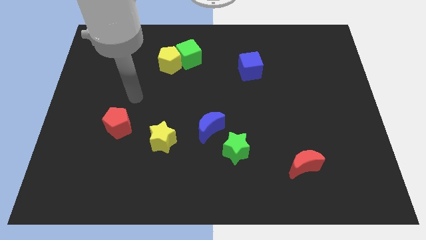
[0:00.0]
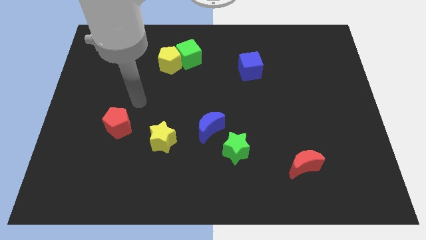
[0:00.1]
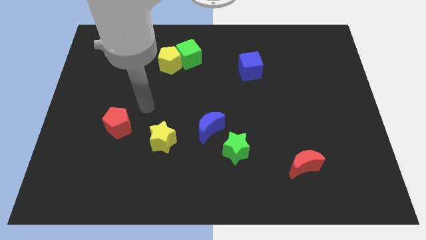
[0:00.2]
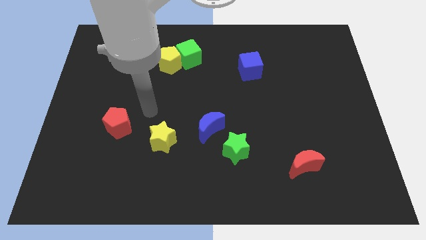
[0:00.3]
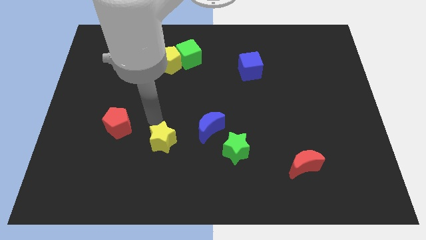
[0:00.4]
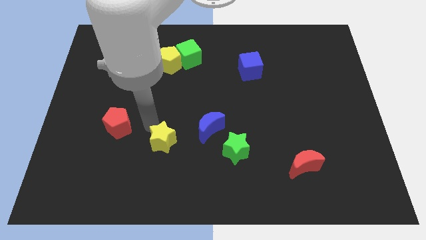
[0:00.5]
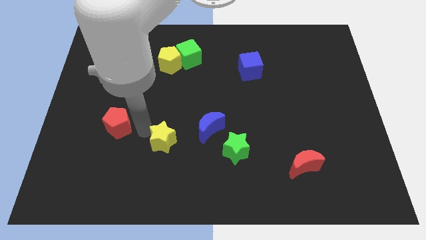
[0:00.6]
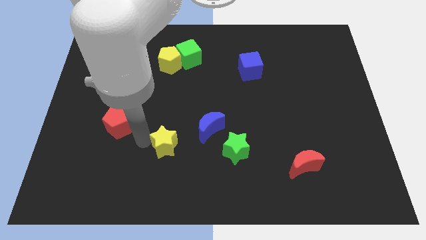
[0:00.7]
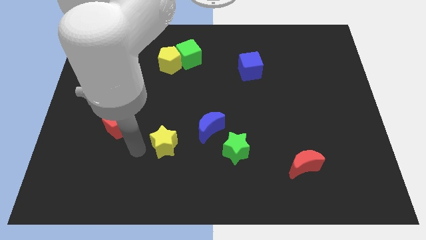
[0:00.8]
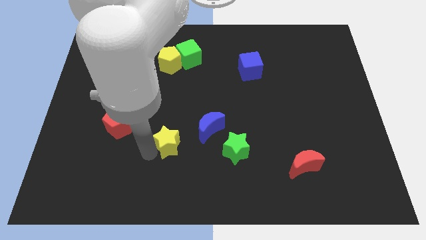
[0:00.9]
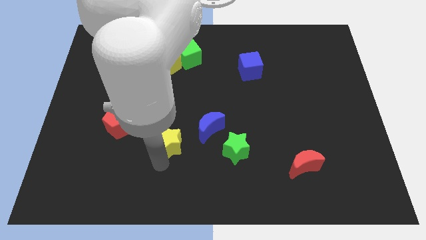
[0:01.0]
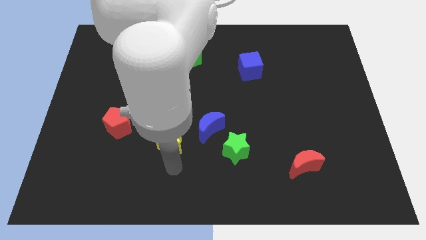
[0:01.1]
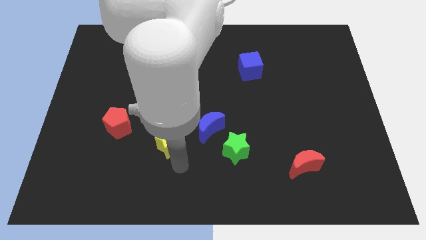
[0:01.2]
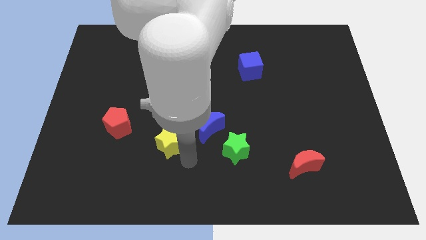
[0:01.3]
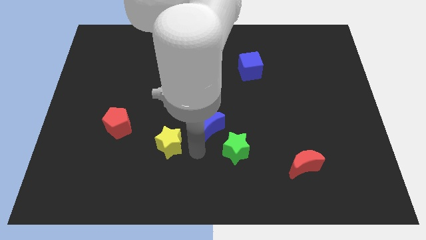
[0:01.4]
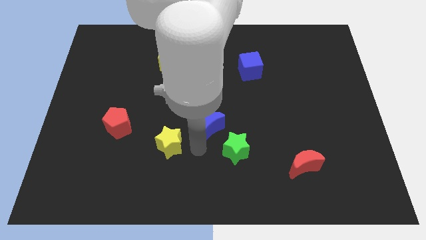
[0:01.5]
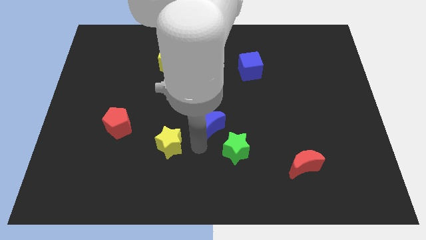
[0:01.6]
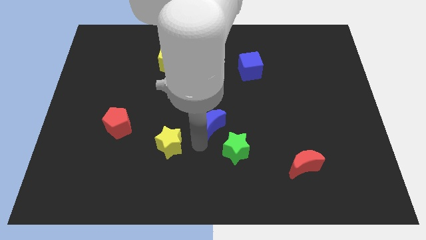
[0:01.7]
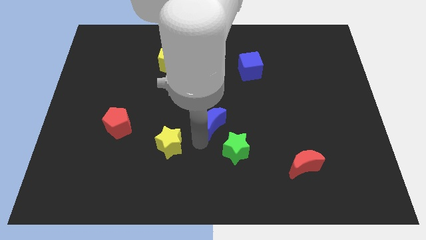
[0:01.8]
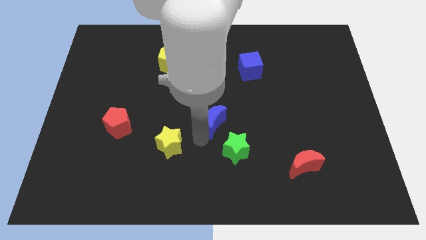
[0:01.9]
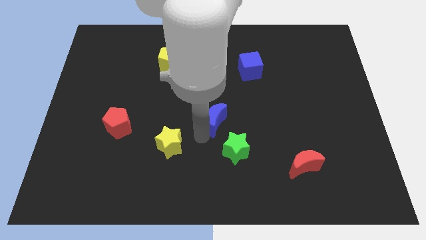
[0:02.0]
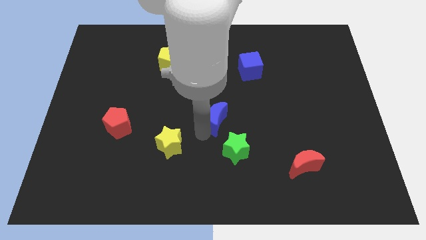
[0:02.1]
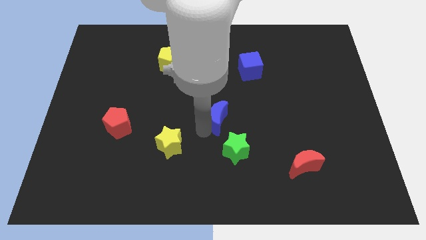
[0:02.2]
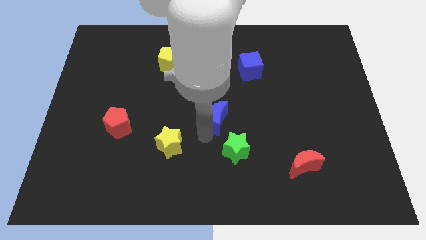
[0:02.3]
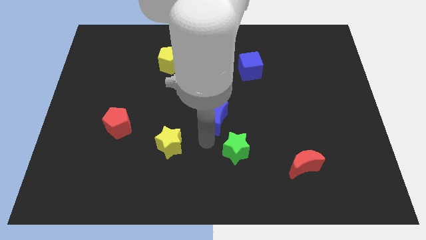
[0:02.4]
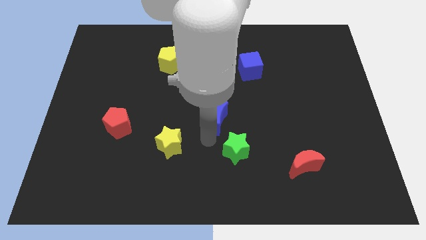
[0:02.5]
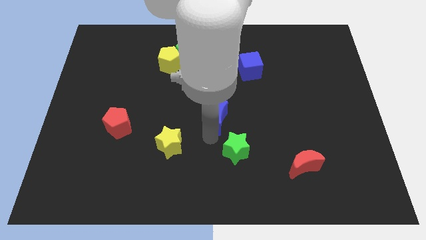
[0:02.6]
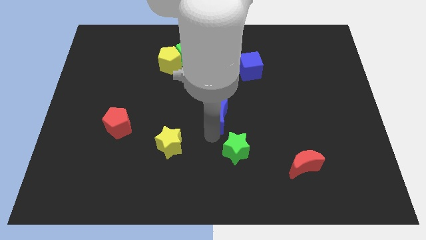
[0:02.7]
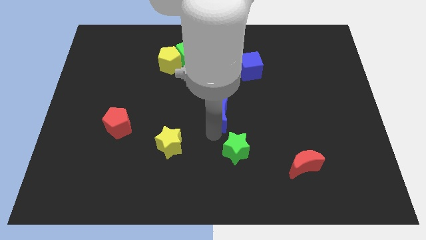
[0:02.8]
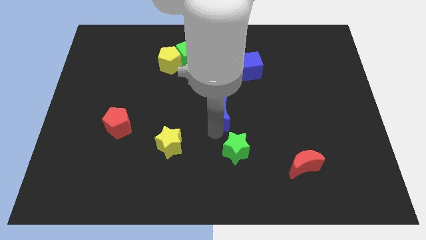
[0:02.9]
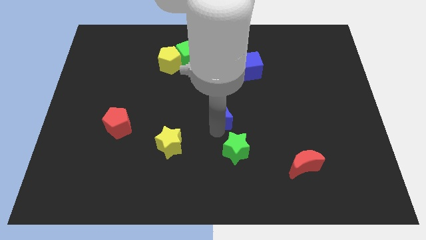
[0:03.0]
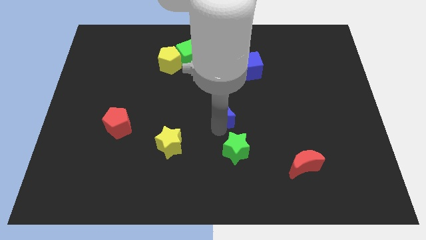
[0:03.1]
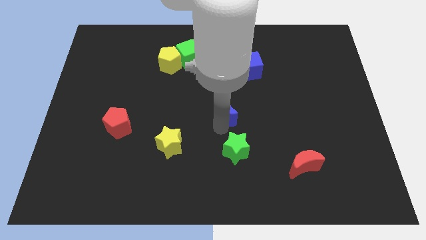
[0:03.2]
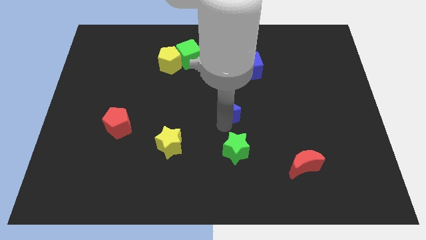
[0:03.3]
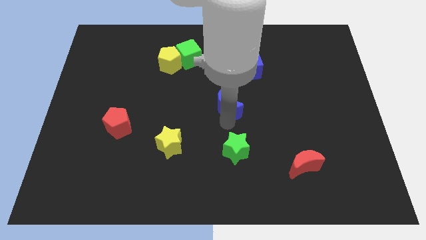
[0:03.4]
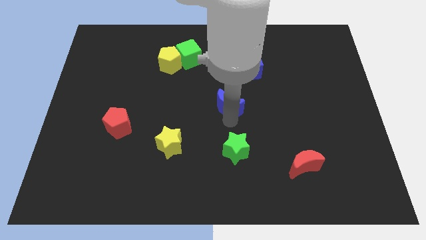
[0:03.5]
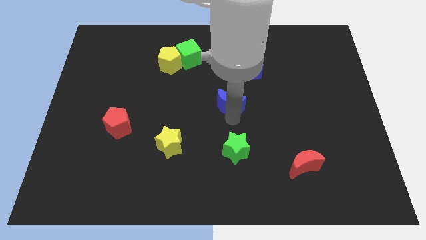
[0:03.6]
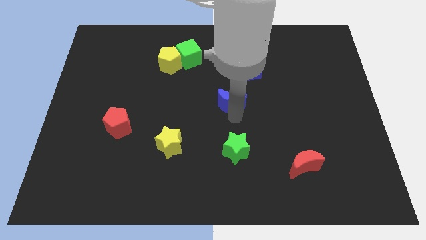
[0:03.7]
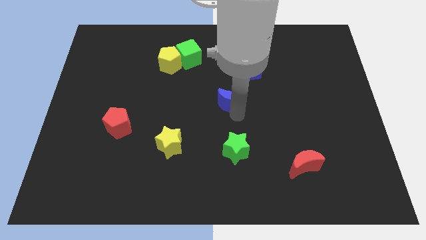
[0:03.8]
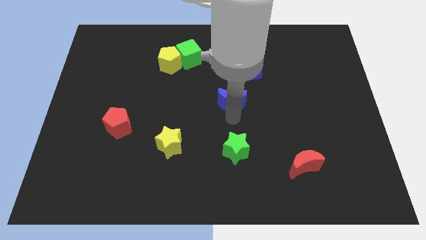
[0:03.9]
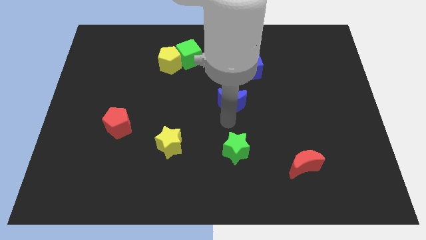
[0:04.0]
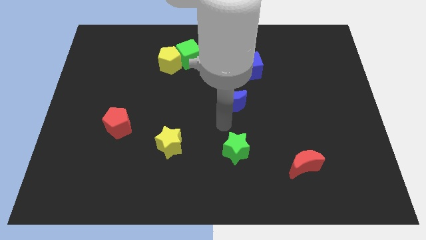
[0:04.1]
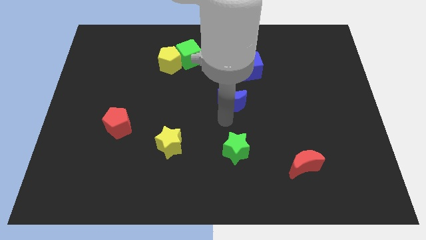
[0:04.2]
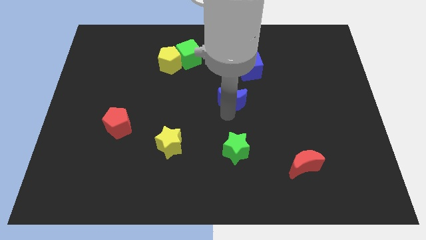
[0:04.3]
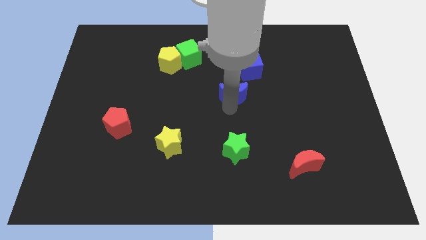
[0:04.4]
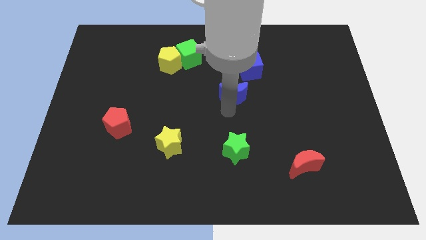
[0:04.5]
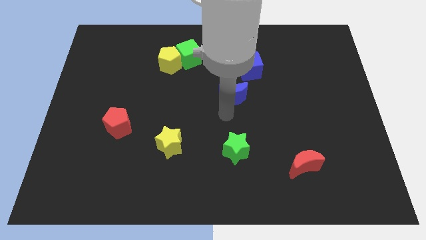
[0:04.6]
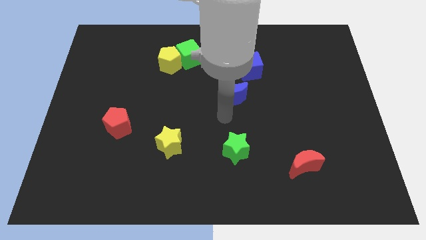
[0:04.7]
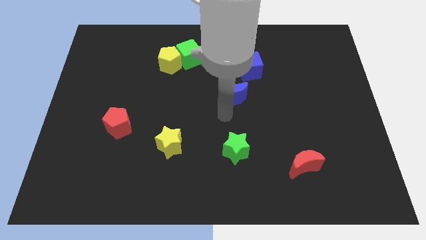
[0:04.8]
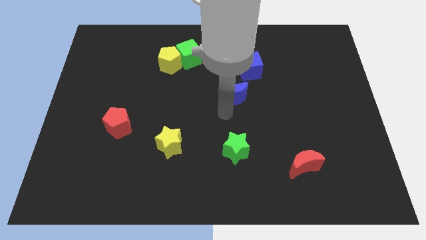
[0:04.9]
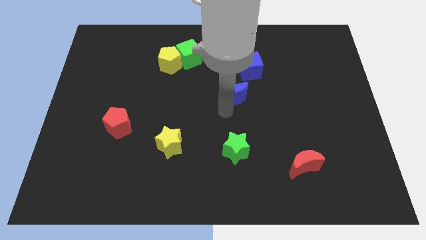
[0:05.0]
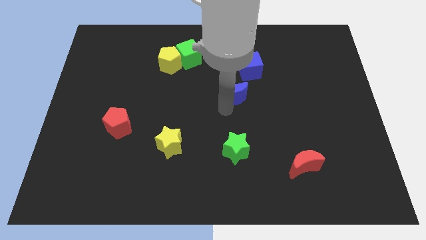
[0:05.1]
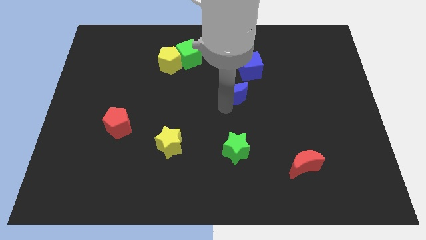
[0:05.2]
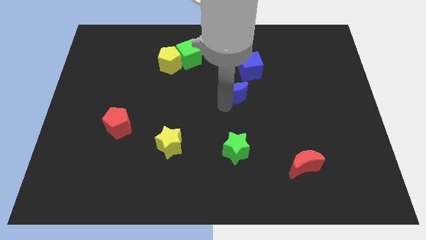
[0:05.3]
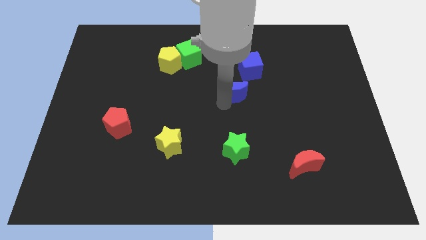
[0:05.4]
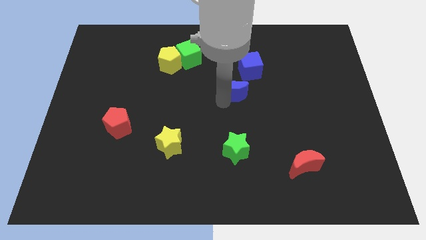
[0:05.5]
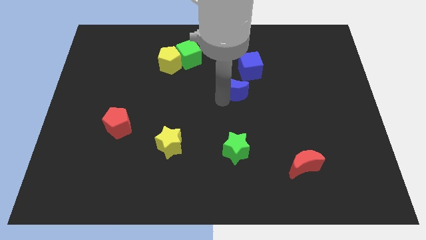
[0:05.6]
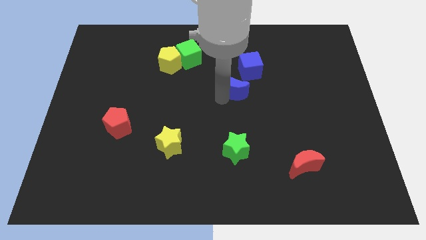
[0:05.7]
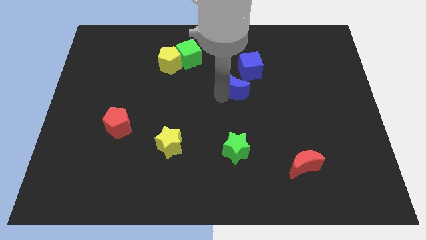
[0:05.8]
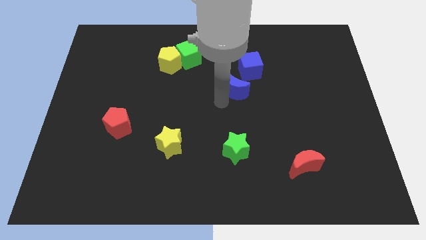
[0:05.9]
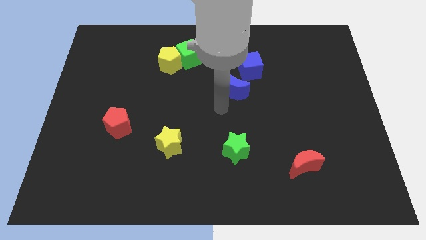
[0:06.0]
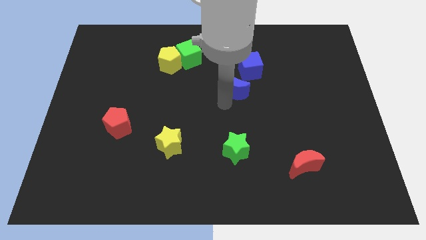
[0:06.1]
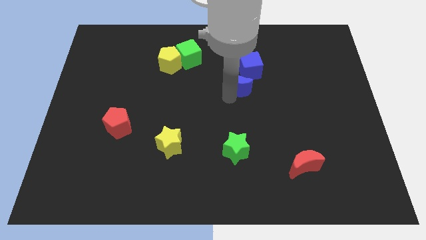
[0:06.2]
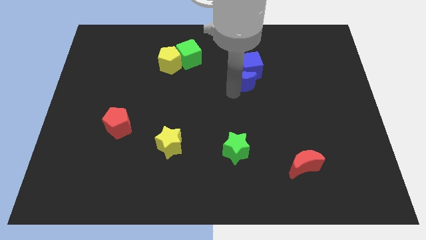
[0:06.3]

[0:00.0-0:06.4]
put the blue moon next to the blue cube

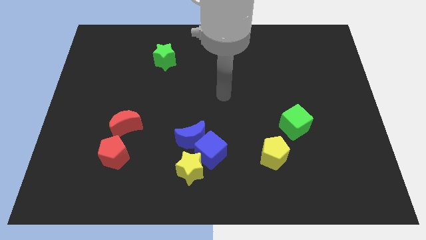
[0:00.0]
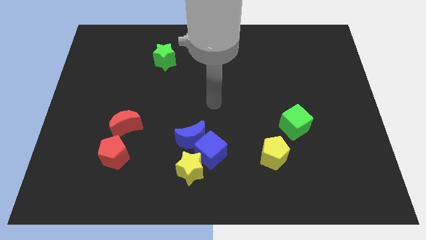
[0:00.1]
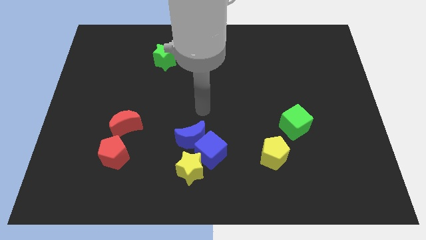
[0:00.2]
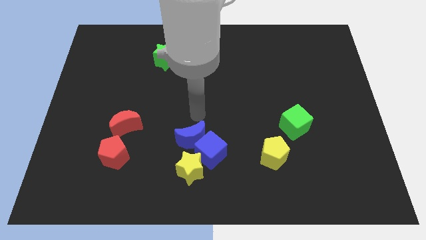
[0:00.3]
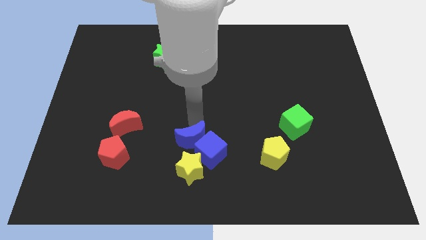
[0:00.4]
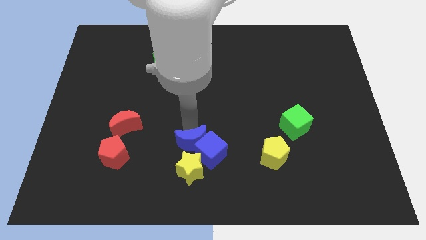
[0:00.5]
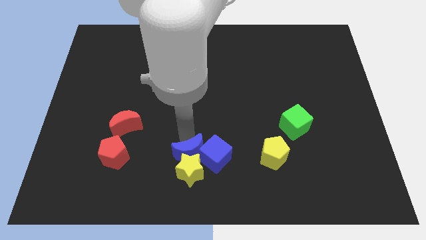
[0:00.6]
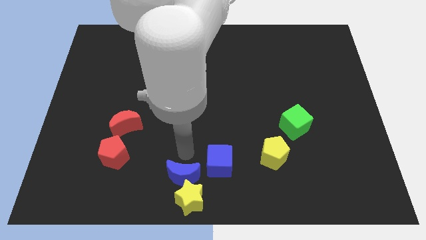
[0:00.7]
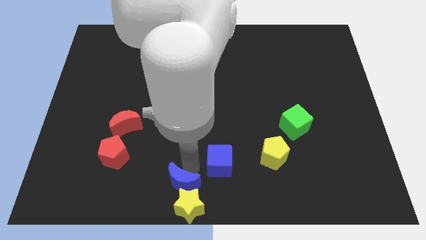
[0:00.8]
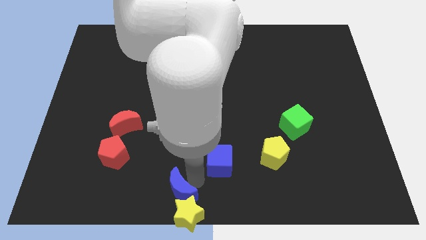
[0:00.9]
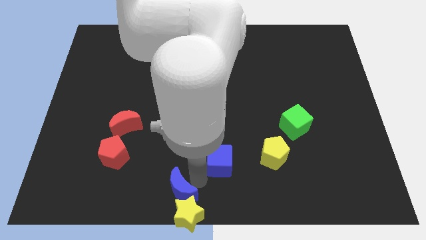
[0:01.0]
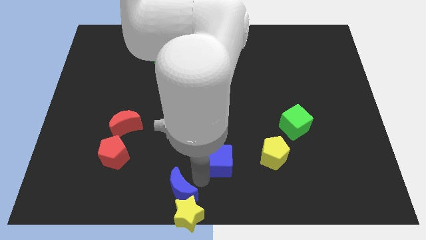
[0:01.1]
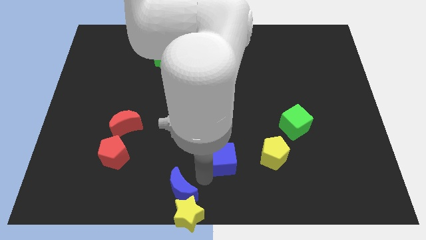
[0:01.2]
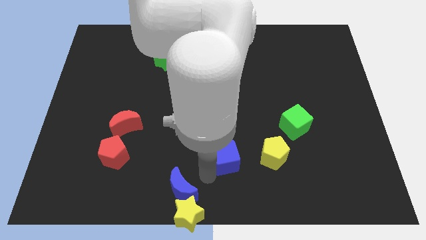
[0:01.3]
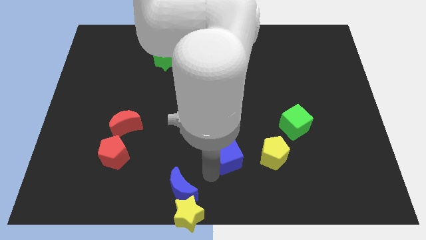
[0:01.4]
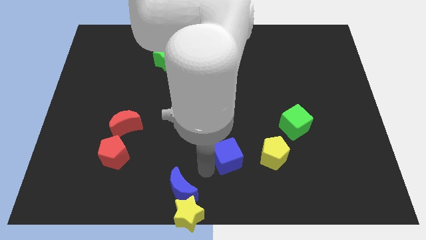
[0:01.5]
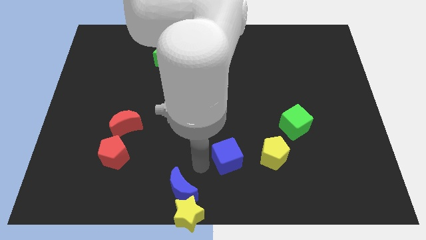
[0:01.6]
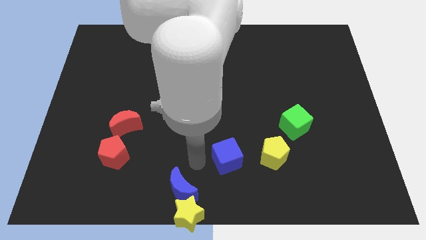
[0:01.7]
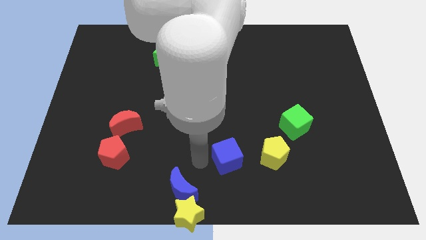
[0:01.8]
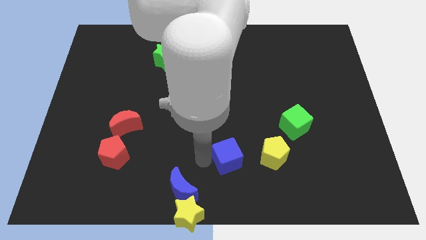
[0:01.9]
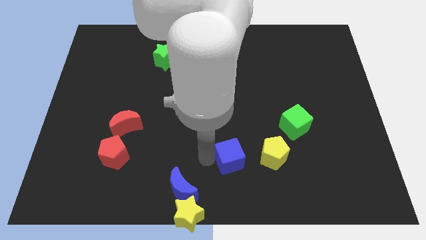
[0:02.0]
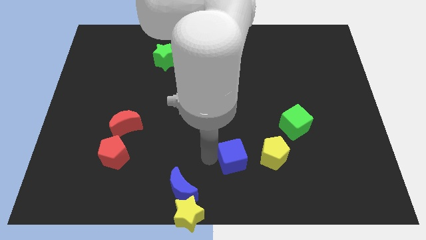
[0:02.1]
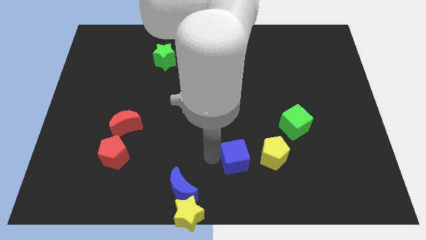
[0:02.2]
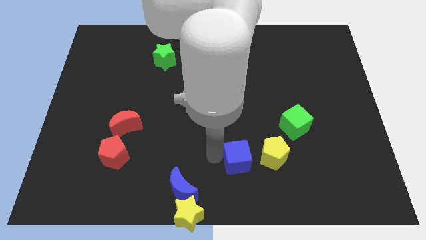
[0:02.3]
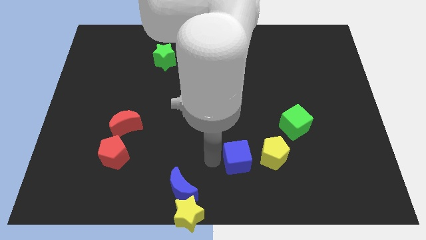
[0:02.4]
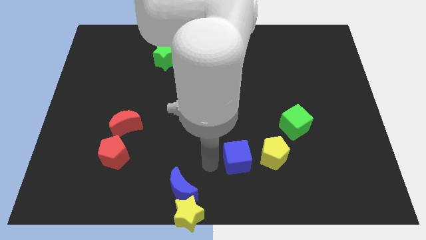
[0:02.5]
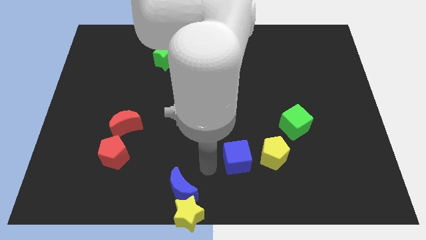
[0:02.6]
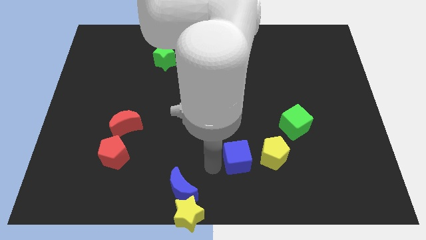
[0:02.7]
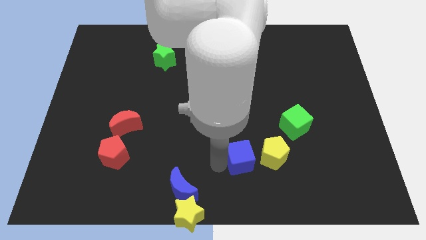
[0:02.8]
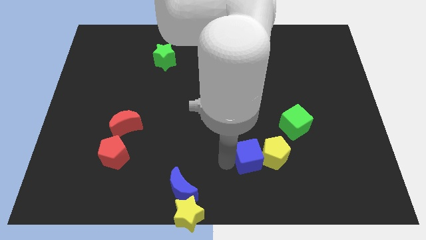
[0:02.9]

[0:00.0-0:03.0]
slide the blue cube to the yellow pentagon
